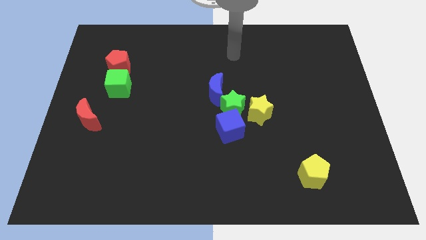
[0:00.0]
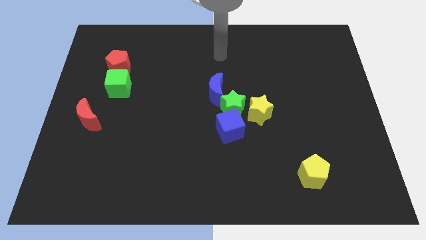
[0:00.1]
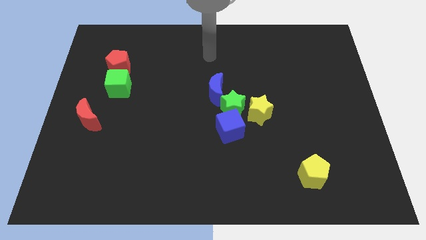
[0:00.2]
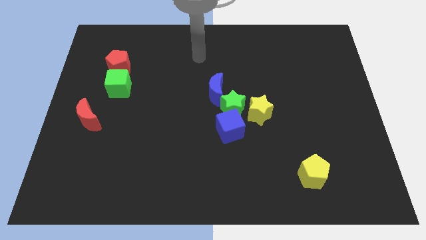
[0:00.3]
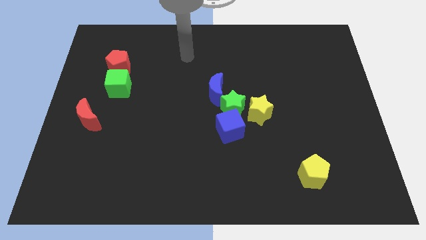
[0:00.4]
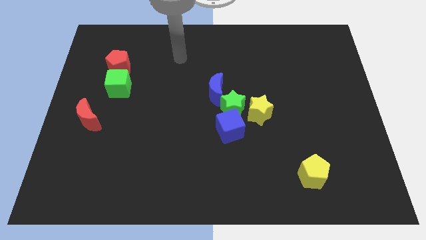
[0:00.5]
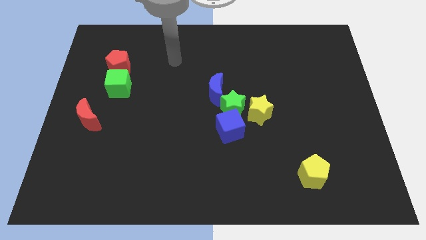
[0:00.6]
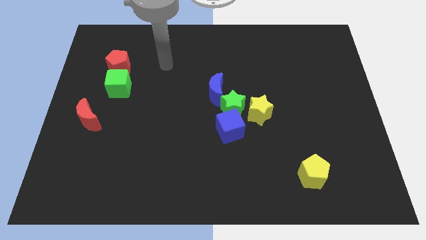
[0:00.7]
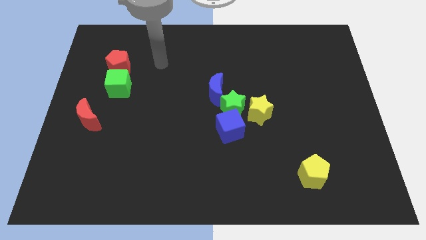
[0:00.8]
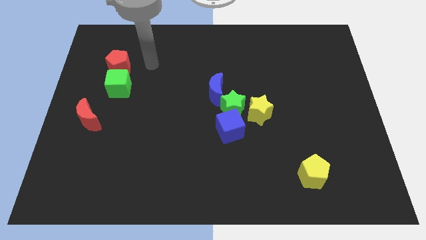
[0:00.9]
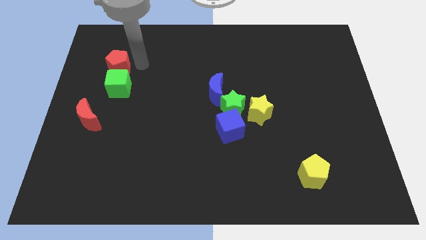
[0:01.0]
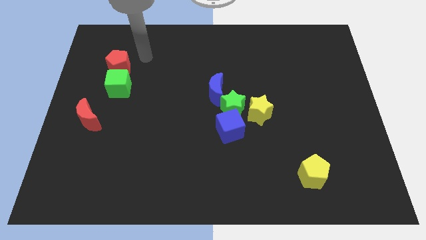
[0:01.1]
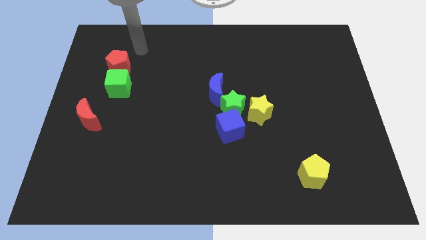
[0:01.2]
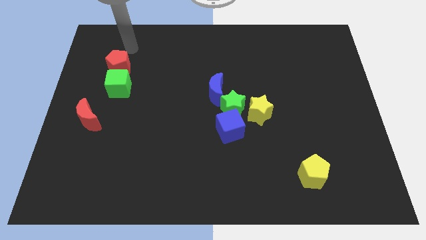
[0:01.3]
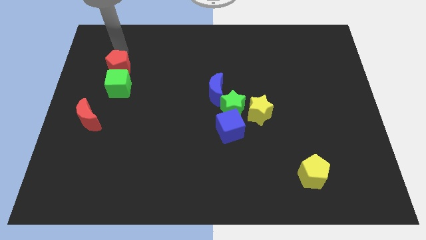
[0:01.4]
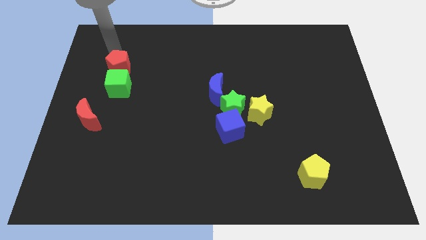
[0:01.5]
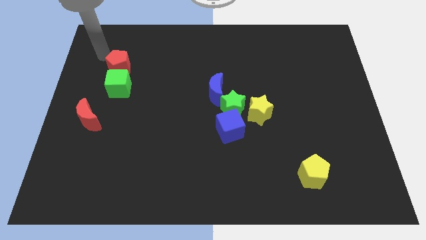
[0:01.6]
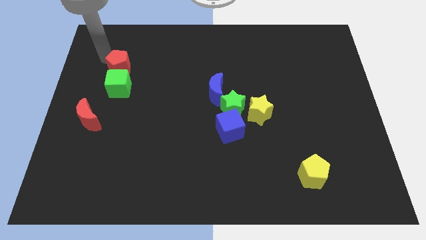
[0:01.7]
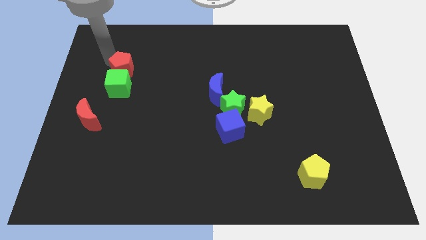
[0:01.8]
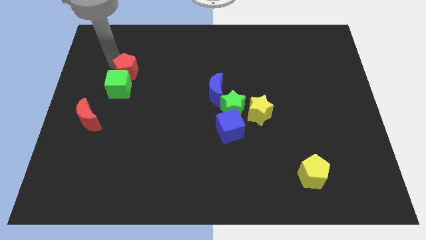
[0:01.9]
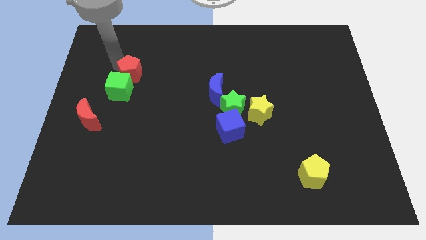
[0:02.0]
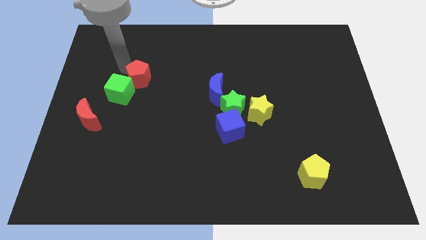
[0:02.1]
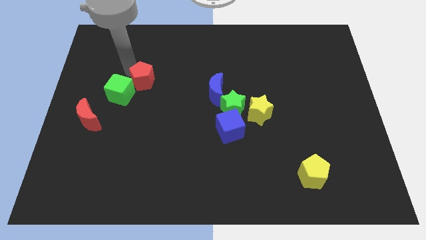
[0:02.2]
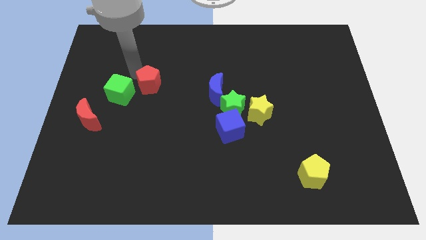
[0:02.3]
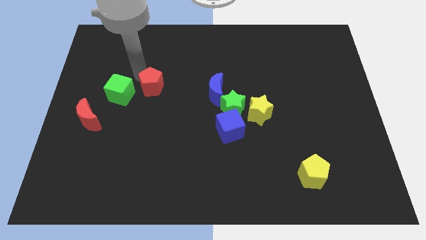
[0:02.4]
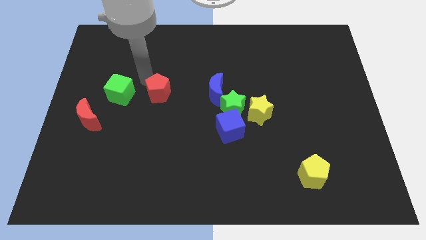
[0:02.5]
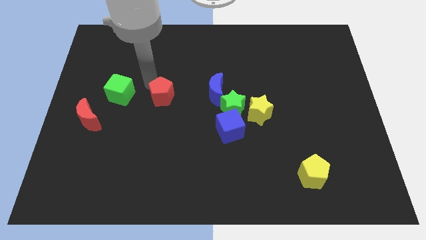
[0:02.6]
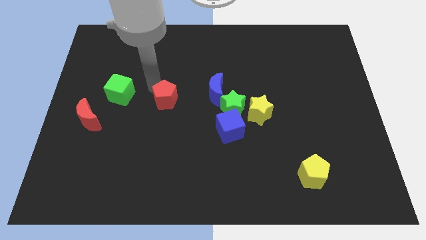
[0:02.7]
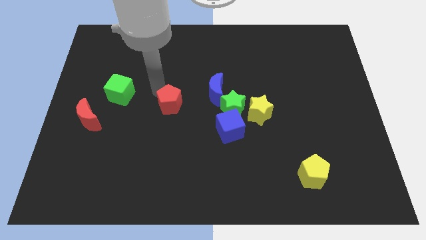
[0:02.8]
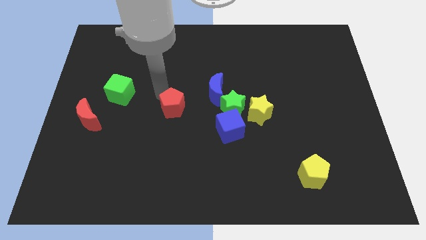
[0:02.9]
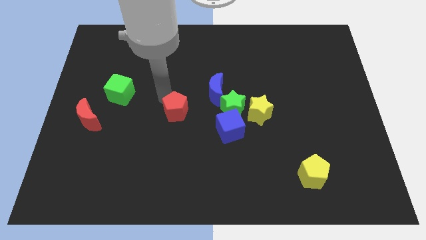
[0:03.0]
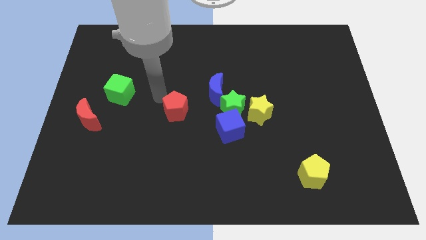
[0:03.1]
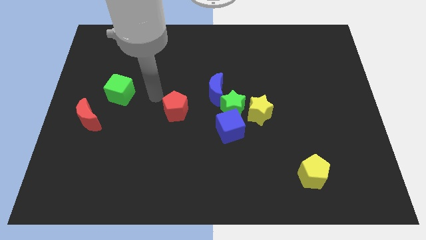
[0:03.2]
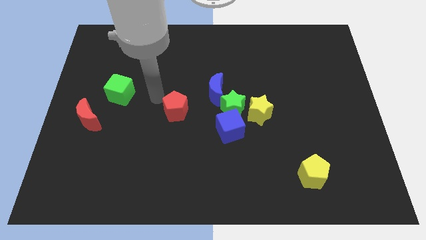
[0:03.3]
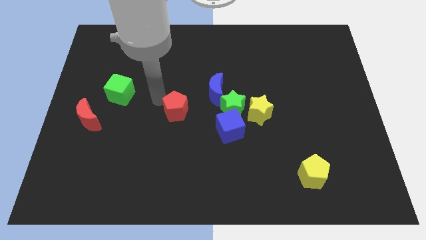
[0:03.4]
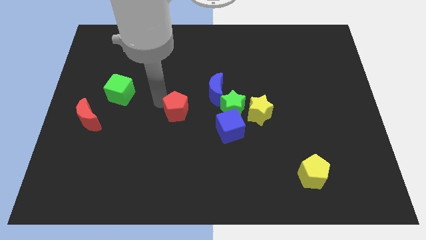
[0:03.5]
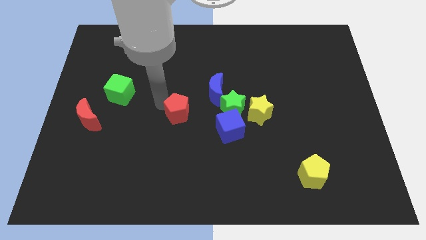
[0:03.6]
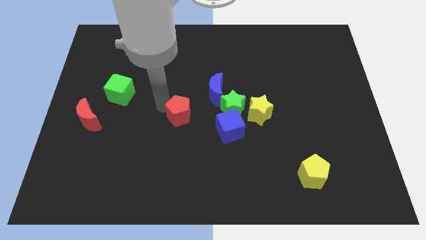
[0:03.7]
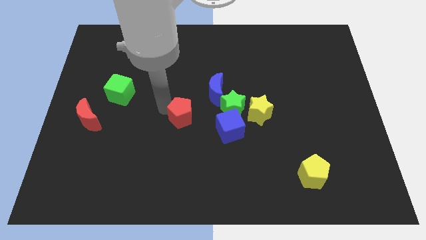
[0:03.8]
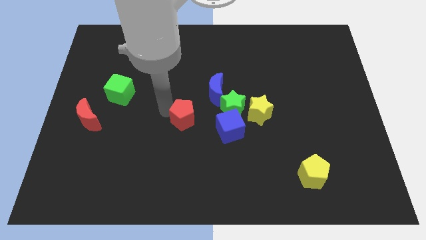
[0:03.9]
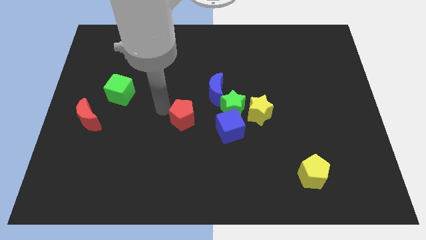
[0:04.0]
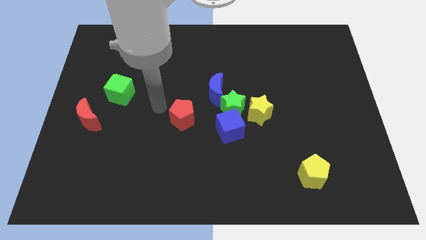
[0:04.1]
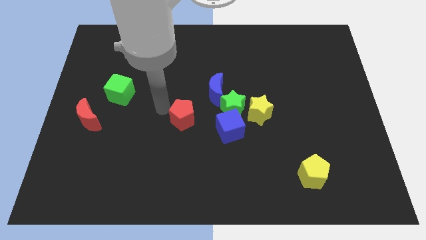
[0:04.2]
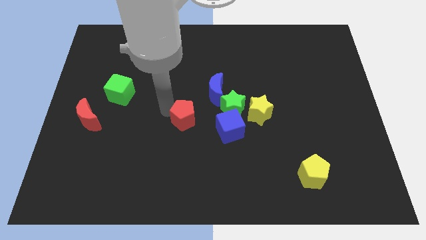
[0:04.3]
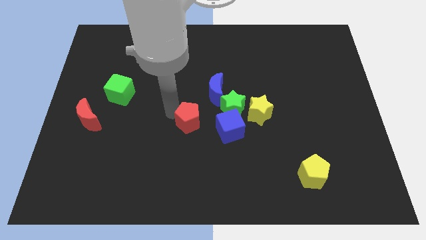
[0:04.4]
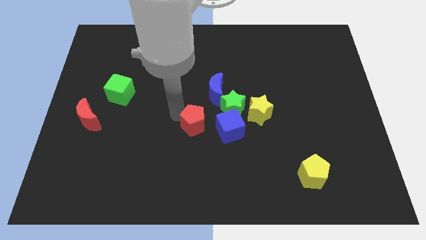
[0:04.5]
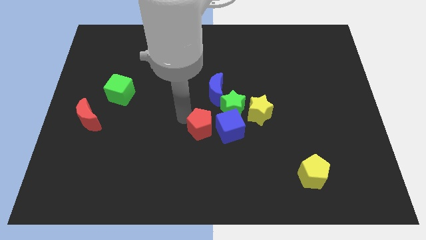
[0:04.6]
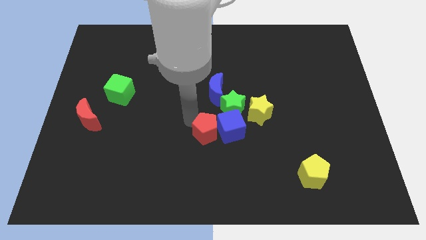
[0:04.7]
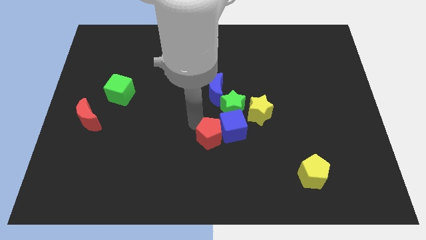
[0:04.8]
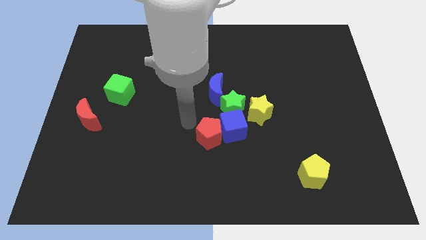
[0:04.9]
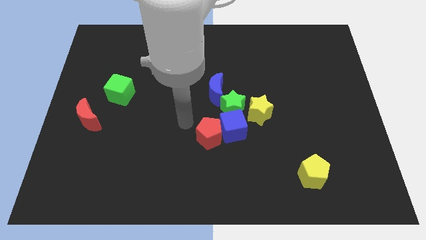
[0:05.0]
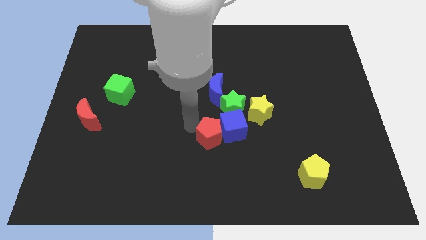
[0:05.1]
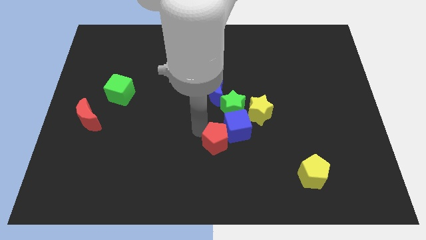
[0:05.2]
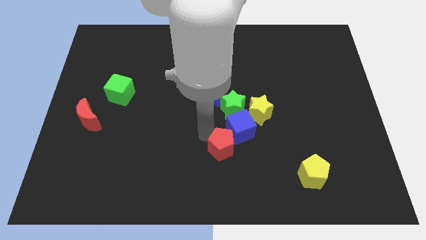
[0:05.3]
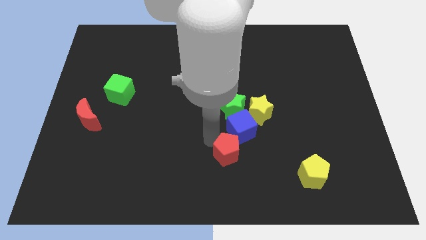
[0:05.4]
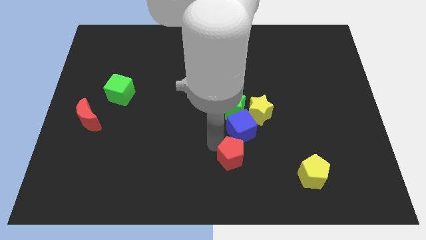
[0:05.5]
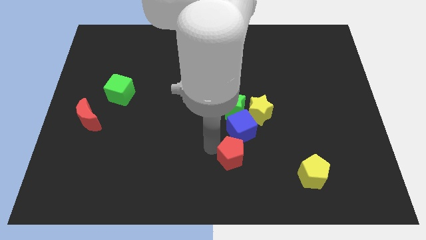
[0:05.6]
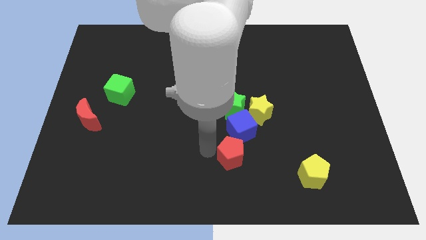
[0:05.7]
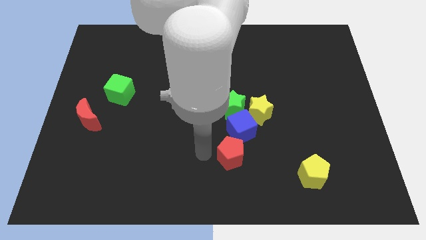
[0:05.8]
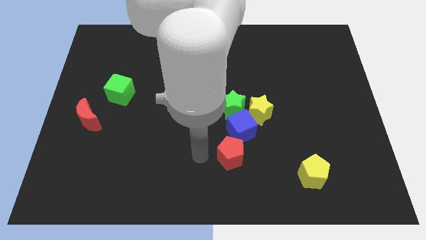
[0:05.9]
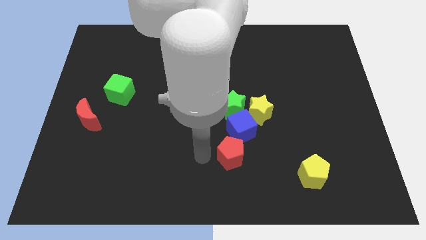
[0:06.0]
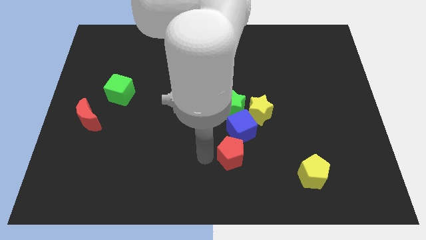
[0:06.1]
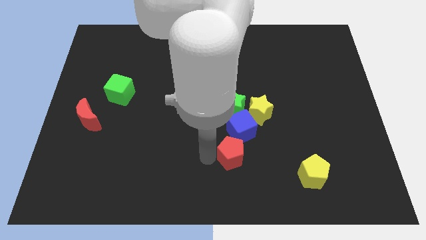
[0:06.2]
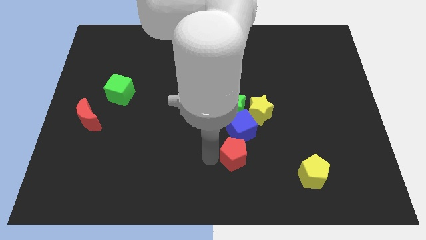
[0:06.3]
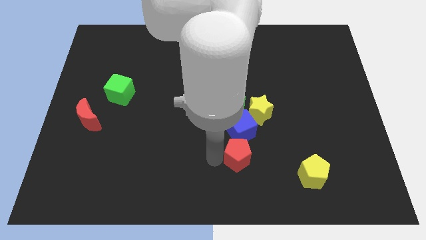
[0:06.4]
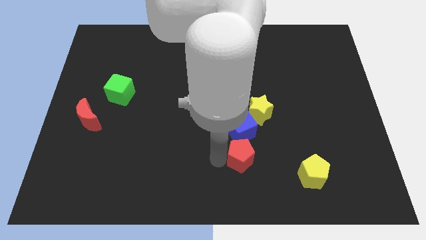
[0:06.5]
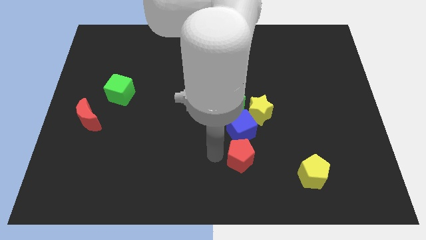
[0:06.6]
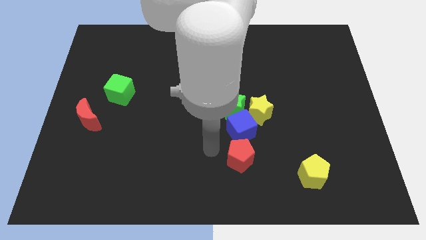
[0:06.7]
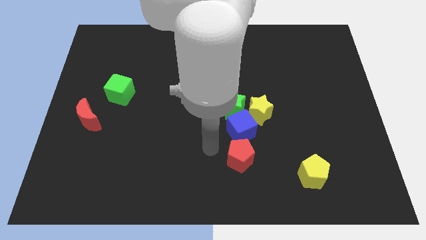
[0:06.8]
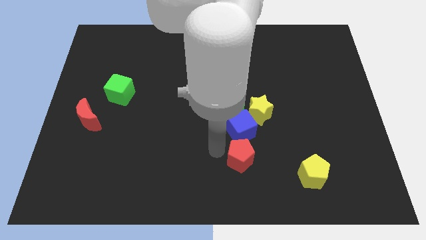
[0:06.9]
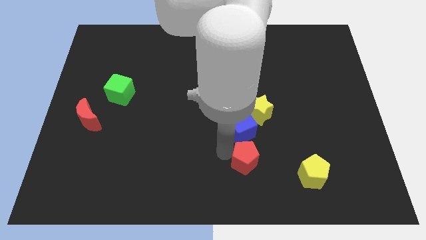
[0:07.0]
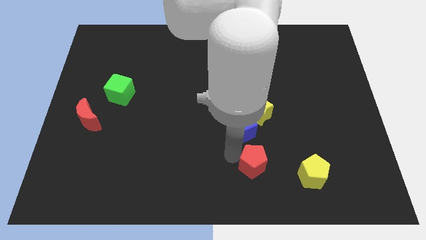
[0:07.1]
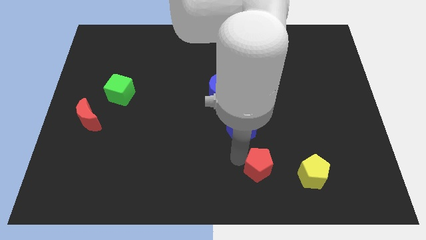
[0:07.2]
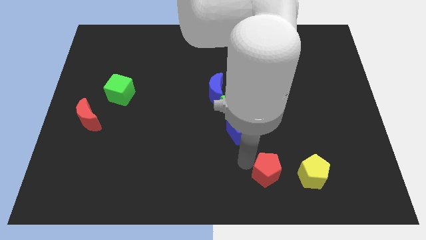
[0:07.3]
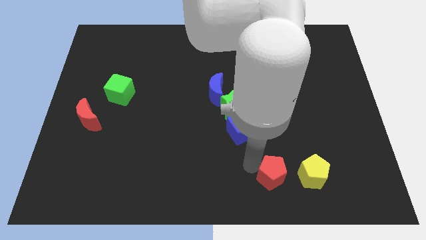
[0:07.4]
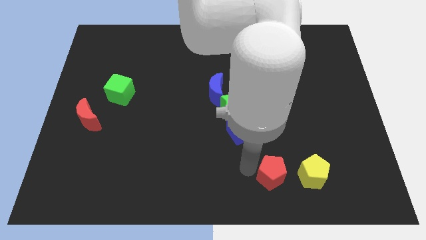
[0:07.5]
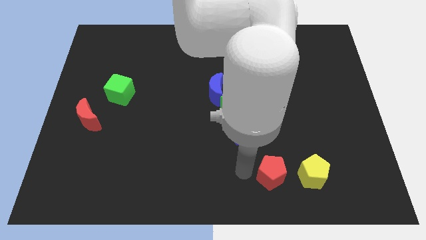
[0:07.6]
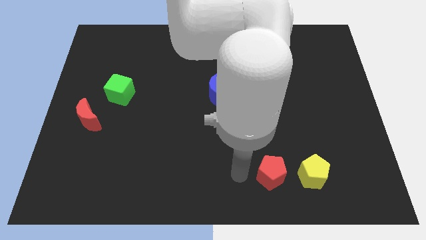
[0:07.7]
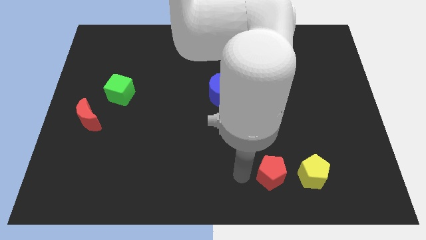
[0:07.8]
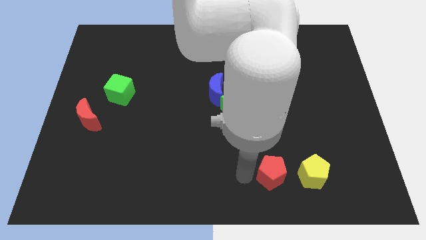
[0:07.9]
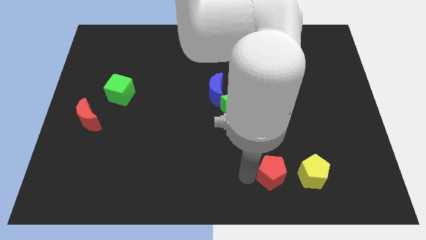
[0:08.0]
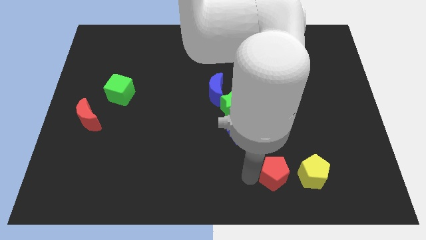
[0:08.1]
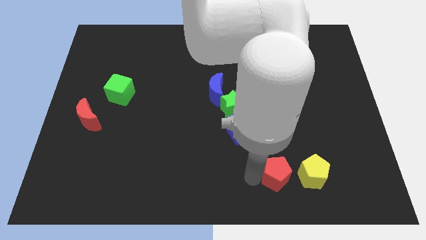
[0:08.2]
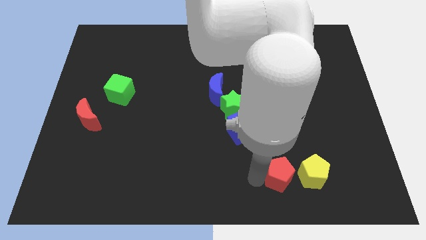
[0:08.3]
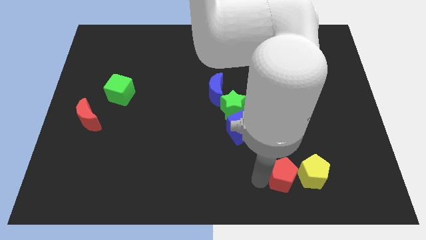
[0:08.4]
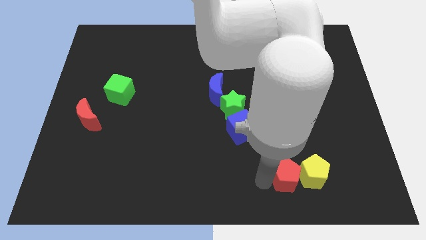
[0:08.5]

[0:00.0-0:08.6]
move the red pentagon close to the yellow pentagon
